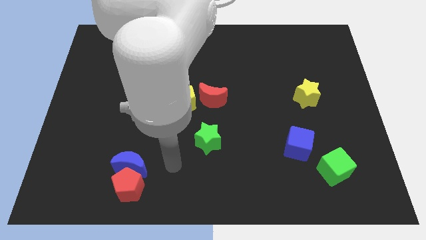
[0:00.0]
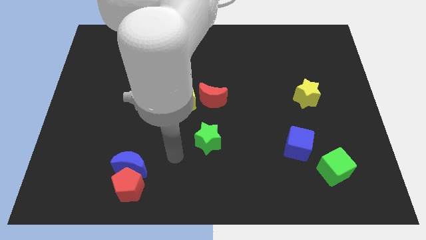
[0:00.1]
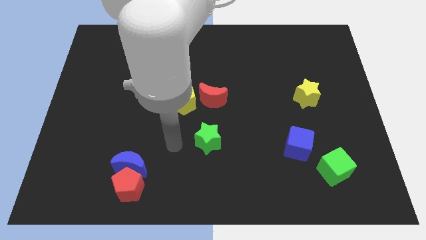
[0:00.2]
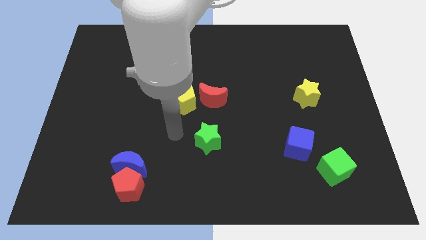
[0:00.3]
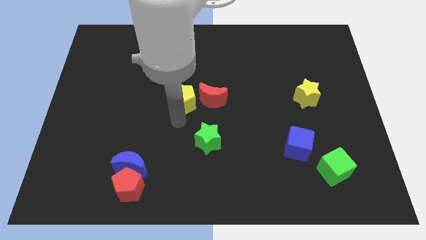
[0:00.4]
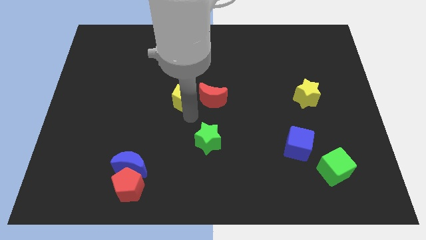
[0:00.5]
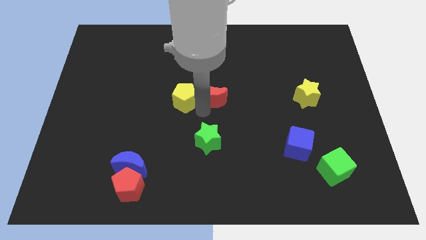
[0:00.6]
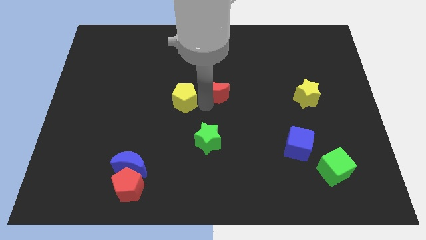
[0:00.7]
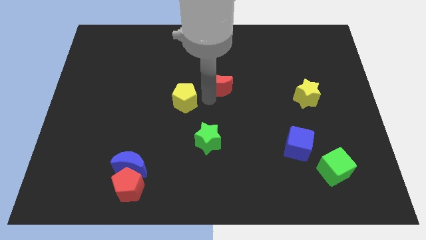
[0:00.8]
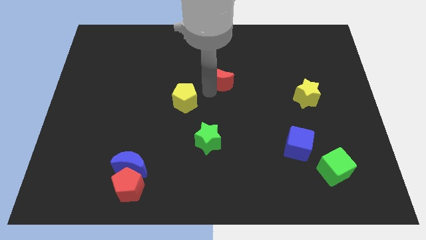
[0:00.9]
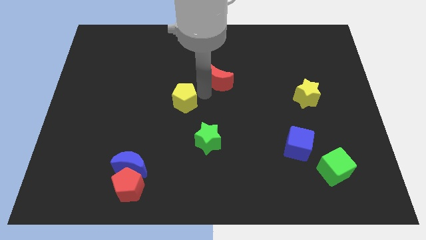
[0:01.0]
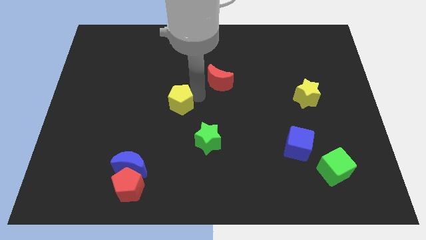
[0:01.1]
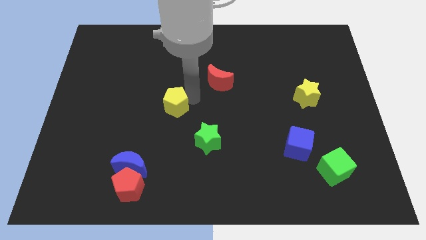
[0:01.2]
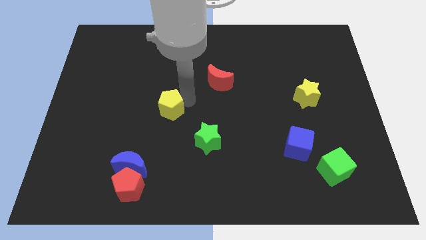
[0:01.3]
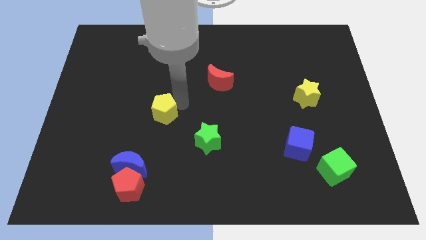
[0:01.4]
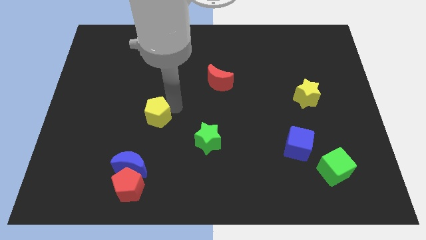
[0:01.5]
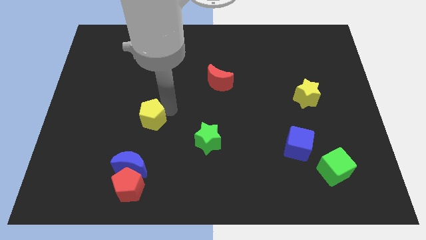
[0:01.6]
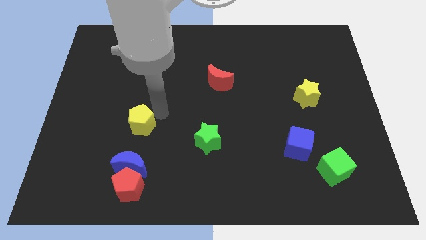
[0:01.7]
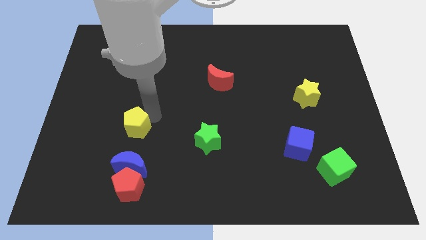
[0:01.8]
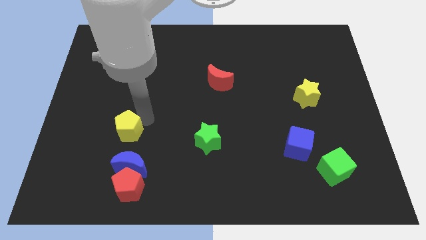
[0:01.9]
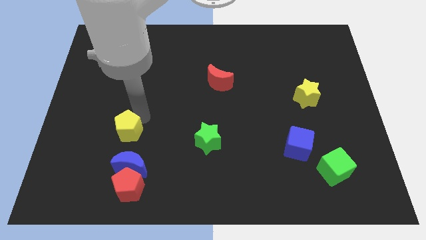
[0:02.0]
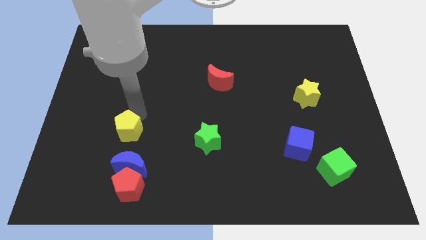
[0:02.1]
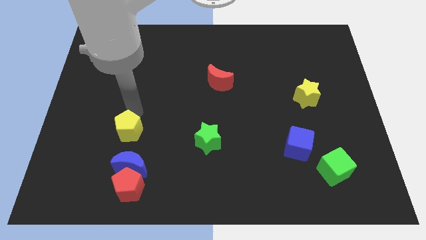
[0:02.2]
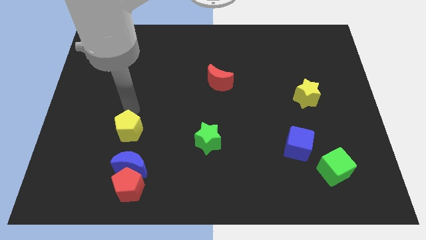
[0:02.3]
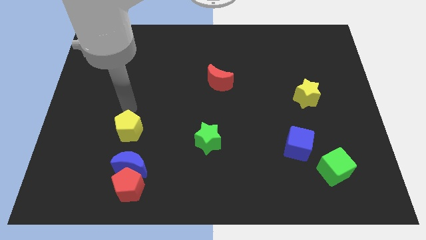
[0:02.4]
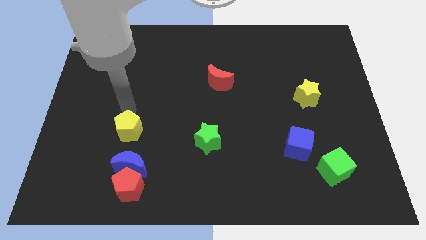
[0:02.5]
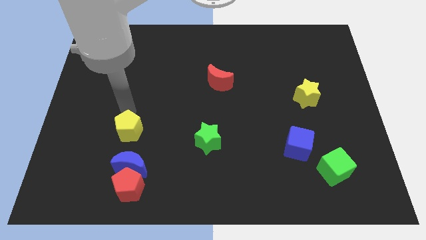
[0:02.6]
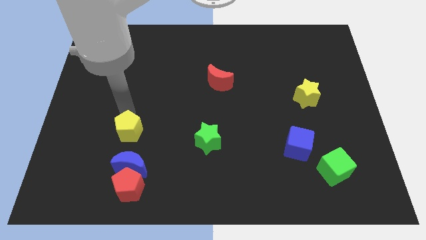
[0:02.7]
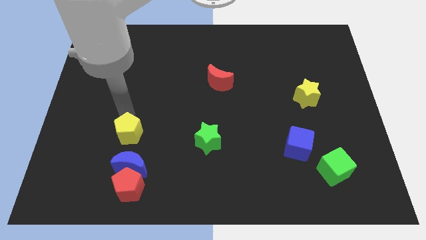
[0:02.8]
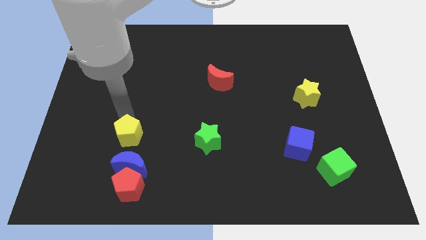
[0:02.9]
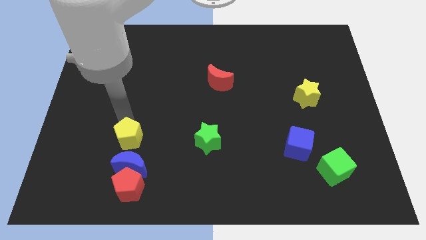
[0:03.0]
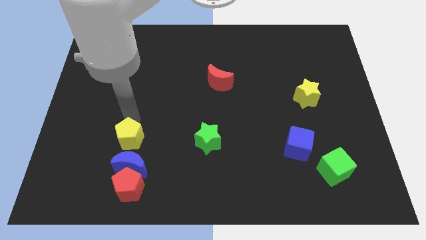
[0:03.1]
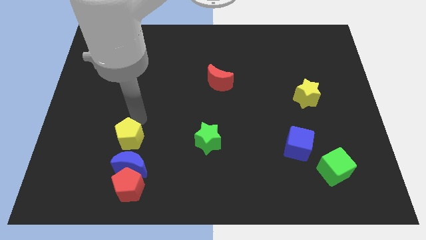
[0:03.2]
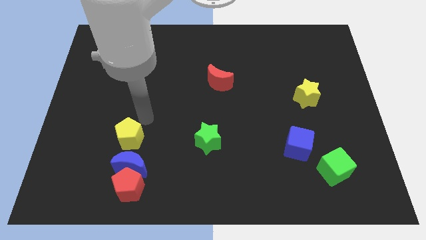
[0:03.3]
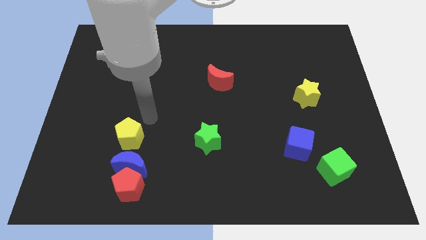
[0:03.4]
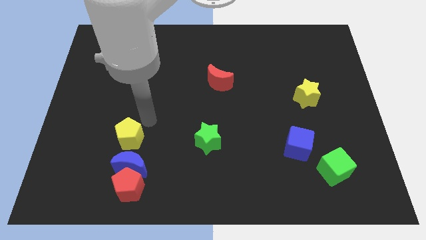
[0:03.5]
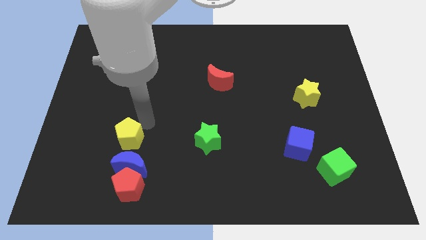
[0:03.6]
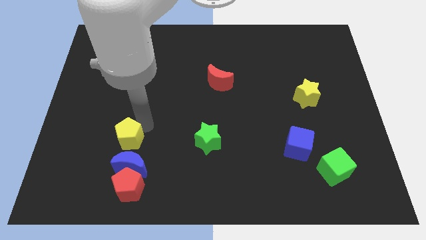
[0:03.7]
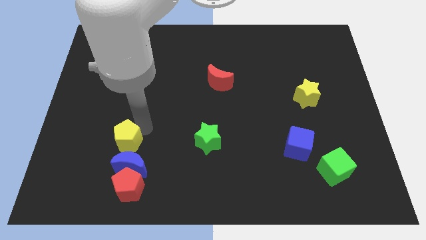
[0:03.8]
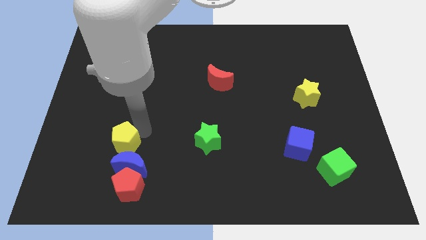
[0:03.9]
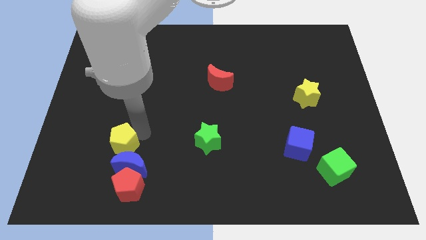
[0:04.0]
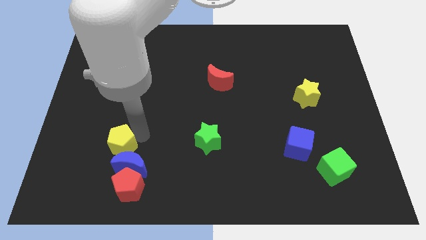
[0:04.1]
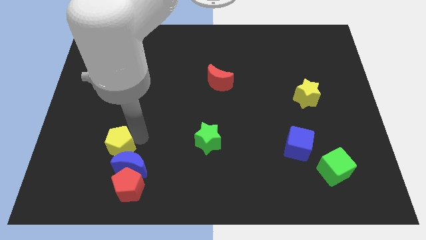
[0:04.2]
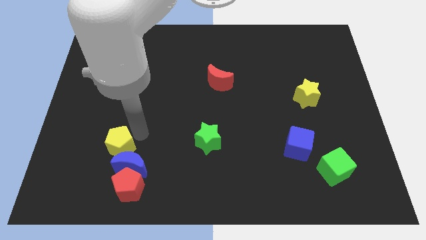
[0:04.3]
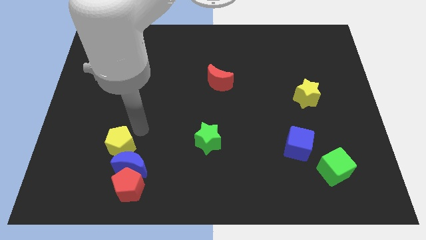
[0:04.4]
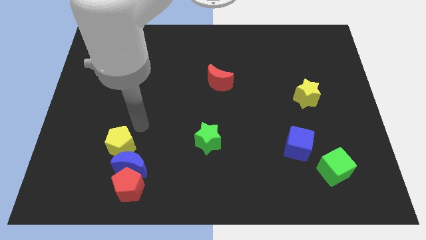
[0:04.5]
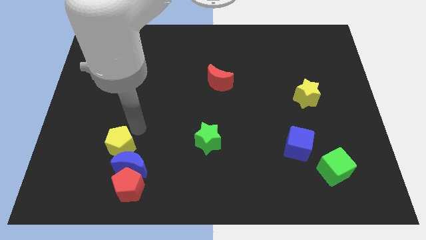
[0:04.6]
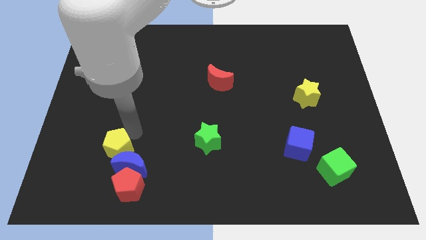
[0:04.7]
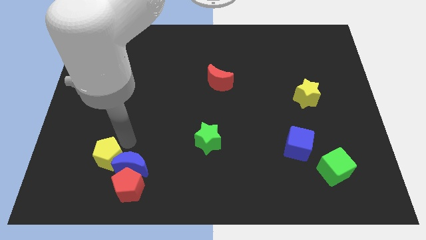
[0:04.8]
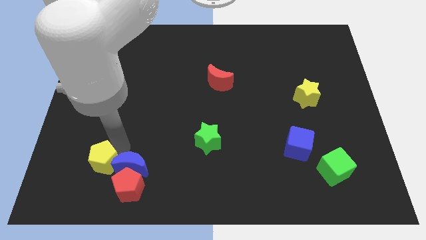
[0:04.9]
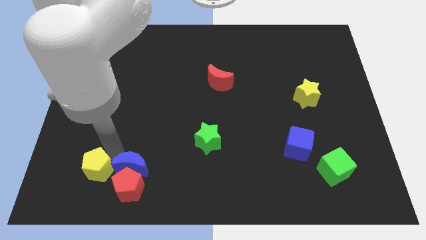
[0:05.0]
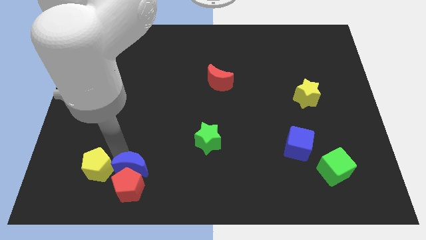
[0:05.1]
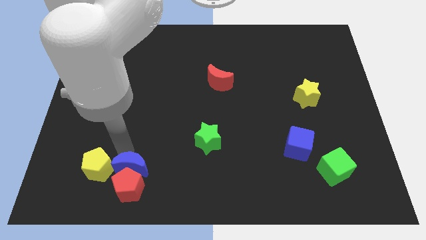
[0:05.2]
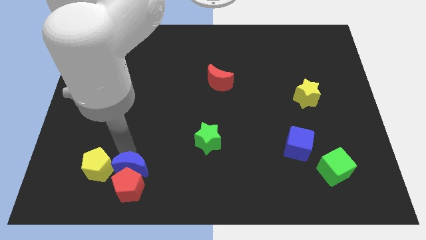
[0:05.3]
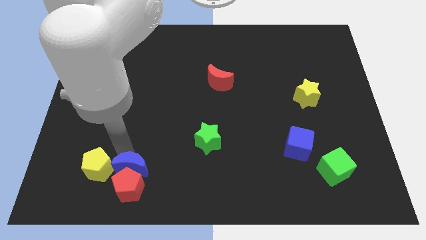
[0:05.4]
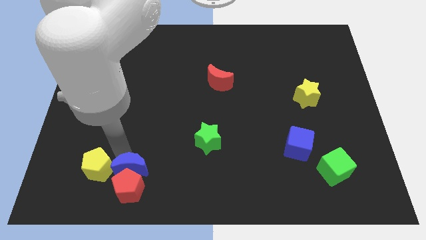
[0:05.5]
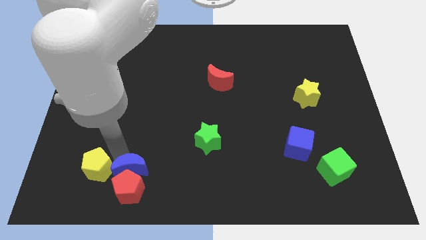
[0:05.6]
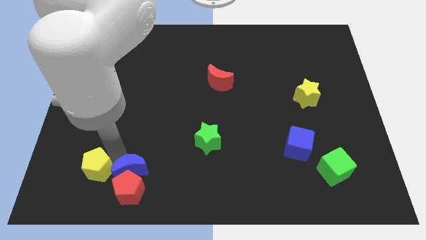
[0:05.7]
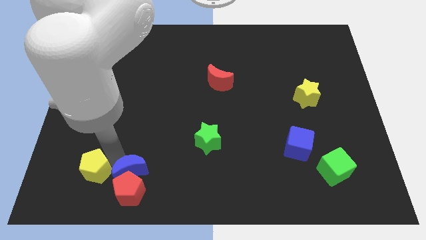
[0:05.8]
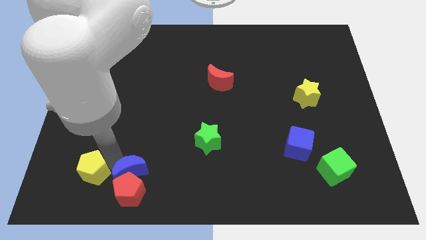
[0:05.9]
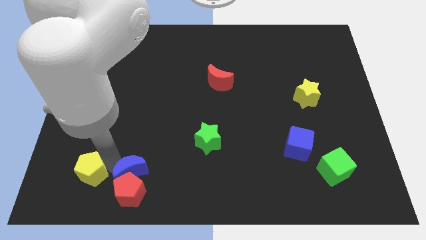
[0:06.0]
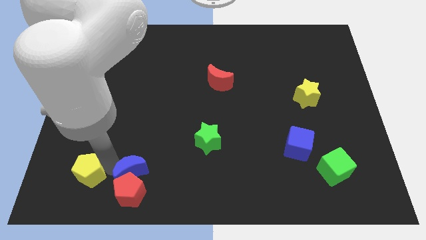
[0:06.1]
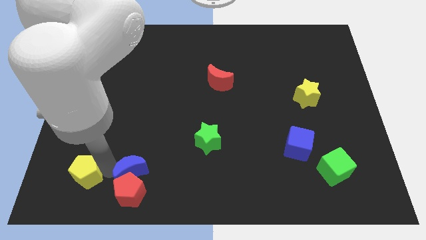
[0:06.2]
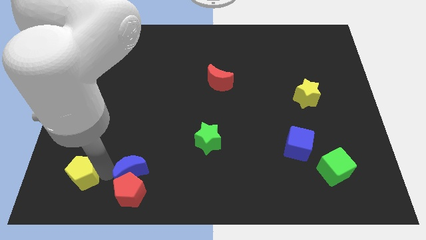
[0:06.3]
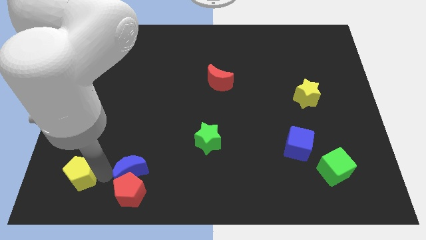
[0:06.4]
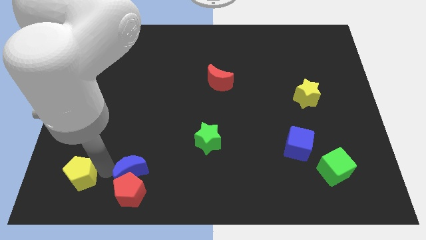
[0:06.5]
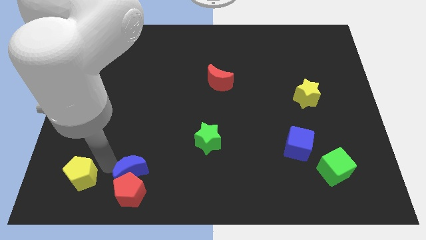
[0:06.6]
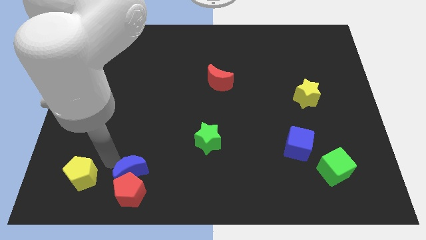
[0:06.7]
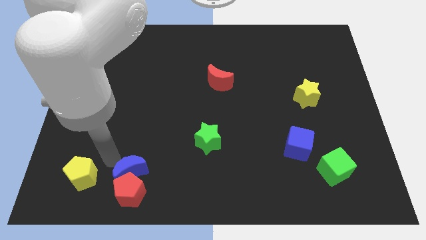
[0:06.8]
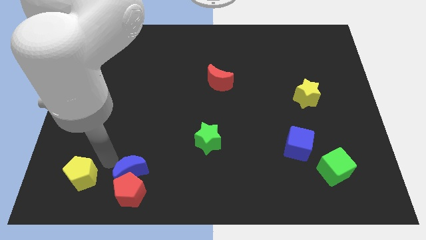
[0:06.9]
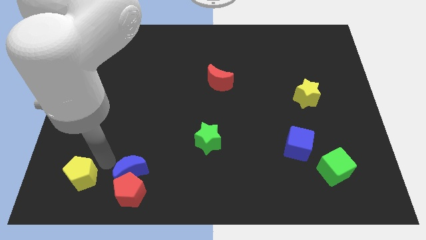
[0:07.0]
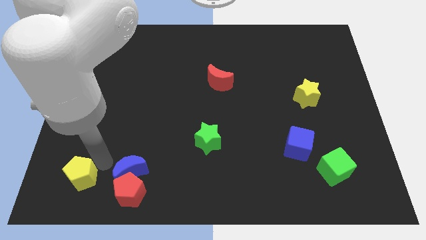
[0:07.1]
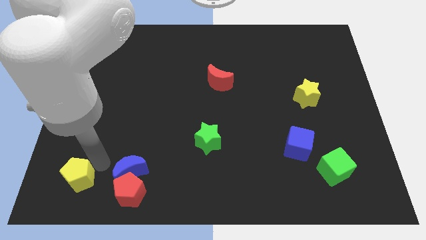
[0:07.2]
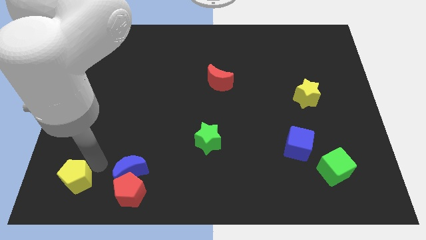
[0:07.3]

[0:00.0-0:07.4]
move the yellow pentagon to the bottom left
